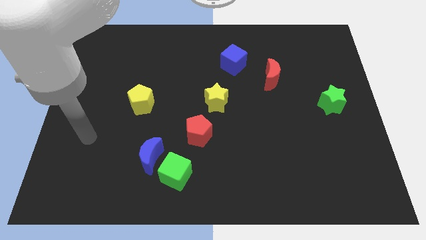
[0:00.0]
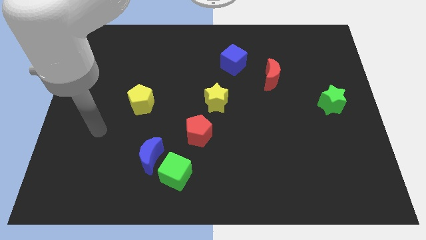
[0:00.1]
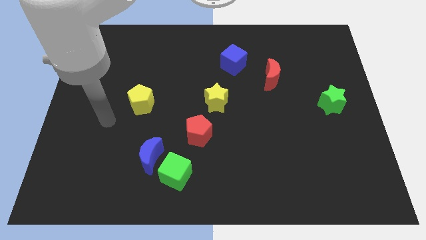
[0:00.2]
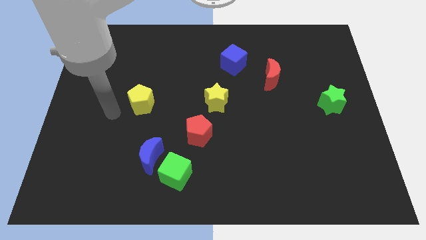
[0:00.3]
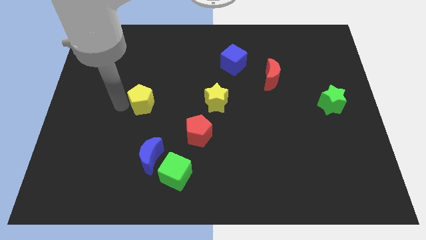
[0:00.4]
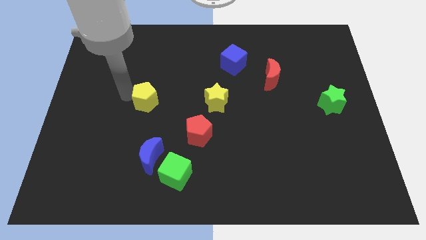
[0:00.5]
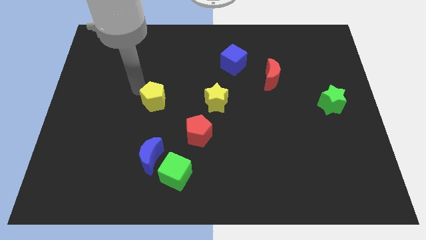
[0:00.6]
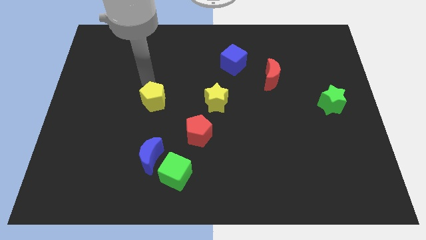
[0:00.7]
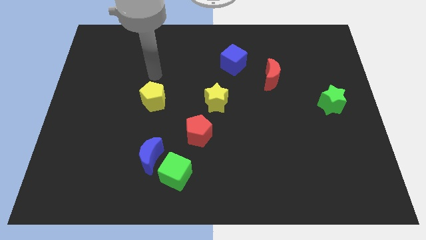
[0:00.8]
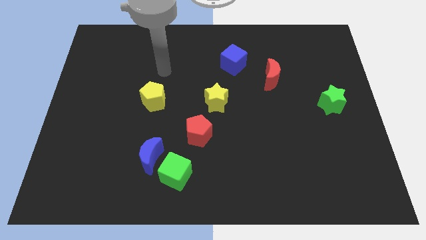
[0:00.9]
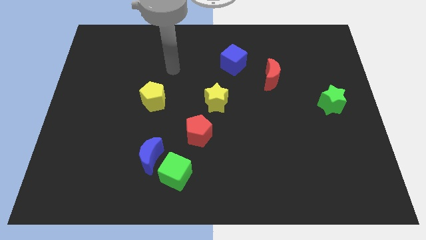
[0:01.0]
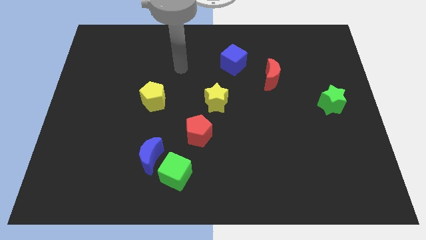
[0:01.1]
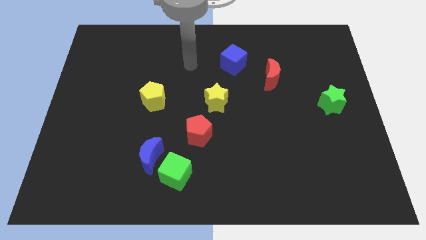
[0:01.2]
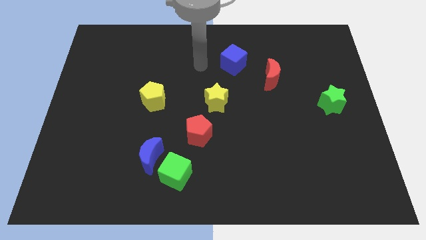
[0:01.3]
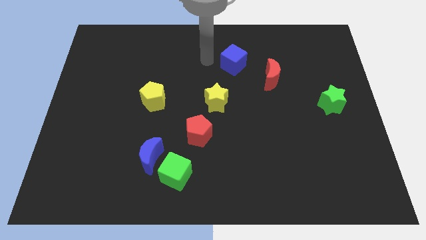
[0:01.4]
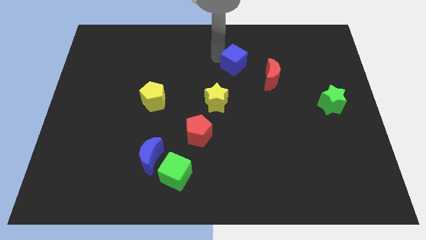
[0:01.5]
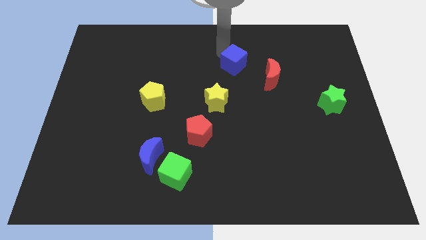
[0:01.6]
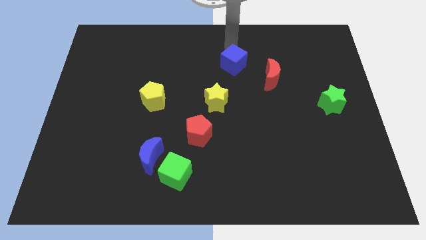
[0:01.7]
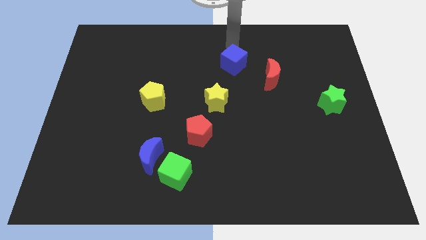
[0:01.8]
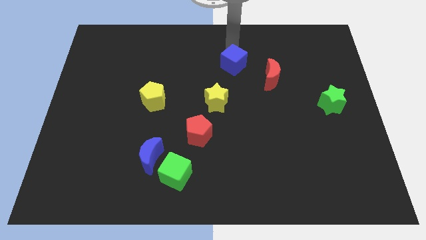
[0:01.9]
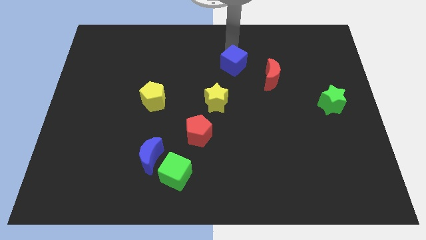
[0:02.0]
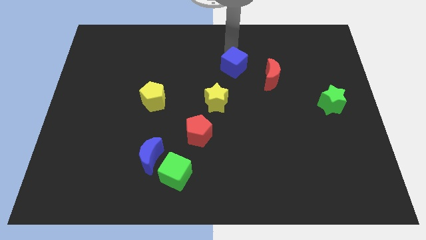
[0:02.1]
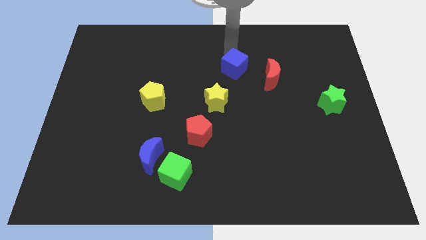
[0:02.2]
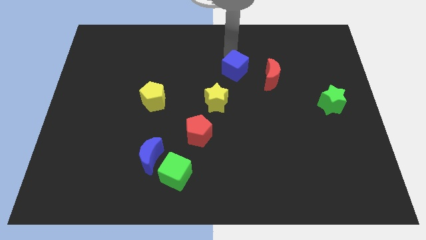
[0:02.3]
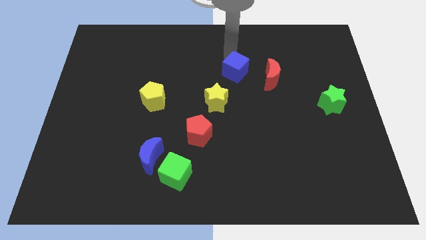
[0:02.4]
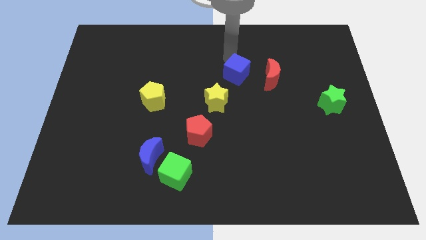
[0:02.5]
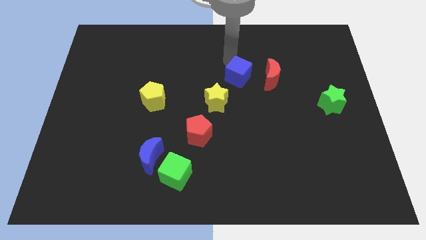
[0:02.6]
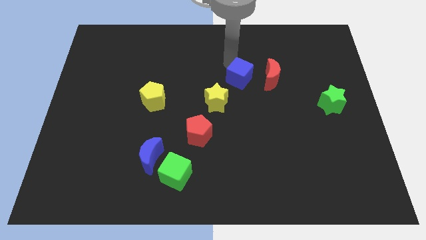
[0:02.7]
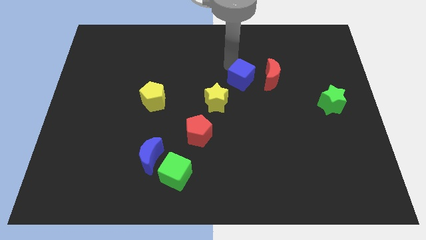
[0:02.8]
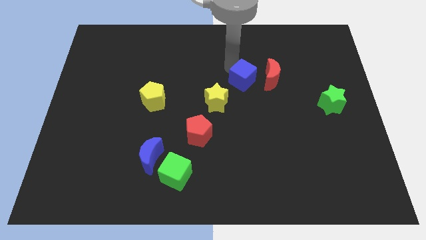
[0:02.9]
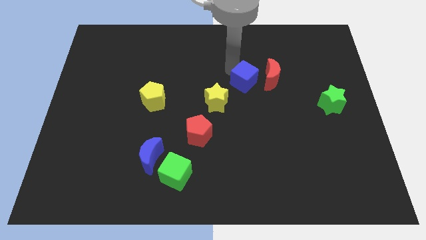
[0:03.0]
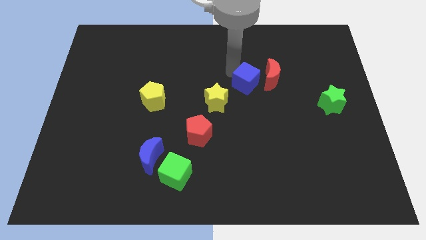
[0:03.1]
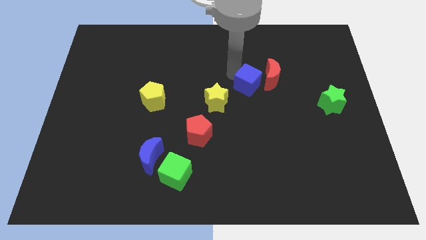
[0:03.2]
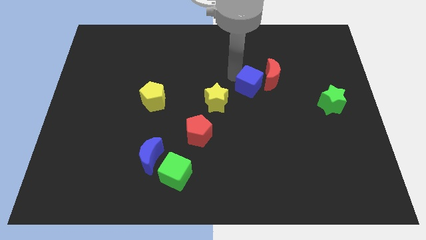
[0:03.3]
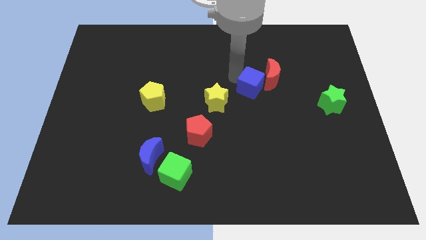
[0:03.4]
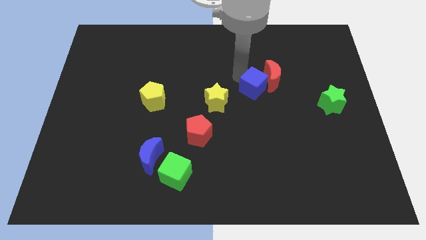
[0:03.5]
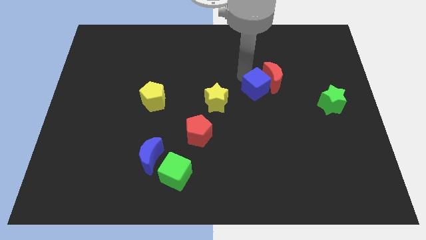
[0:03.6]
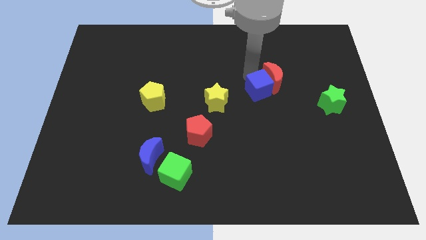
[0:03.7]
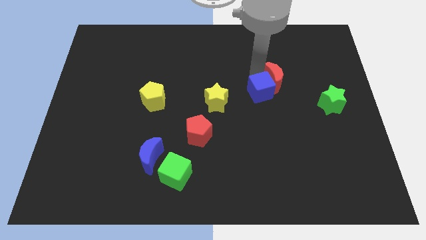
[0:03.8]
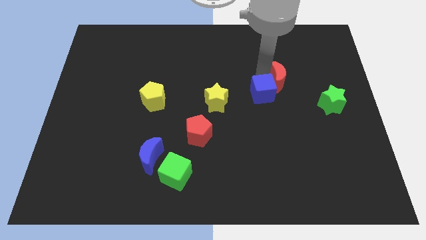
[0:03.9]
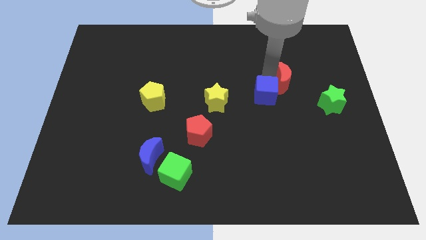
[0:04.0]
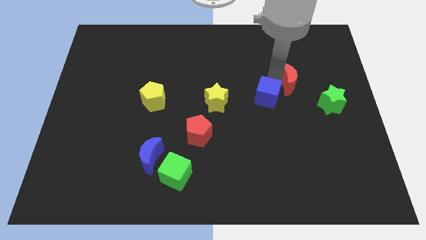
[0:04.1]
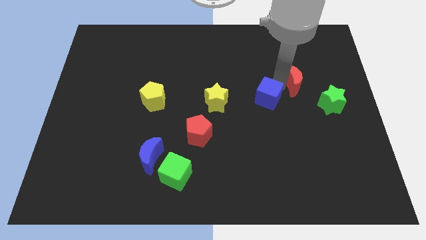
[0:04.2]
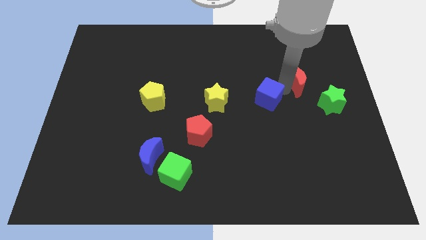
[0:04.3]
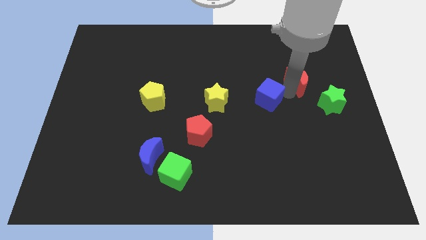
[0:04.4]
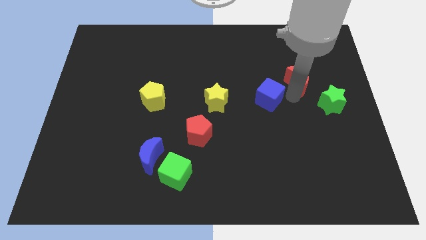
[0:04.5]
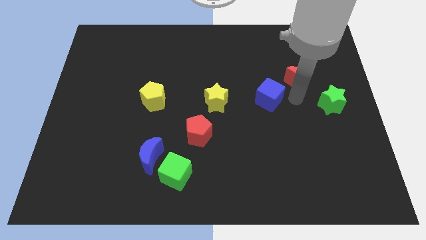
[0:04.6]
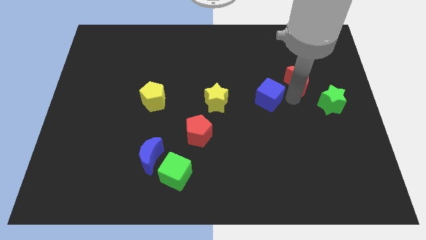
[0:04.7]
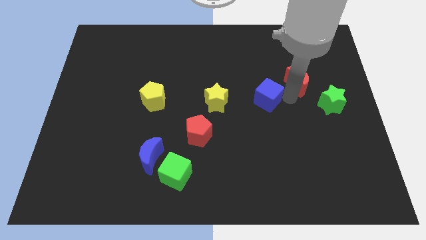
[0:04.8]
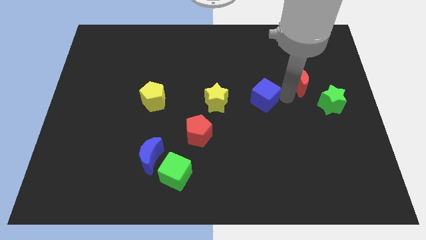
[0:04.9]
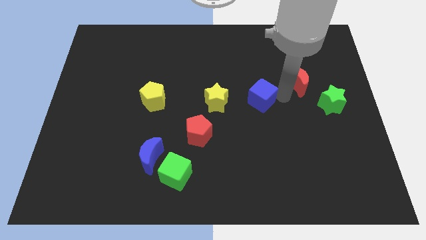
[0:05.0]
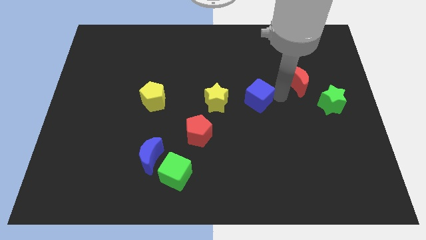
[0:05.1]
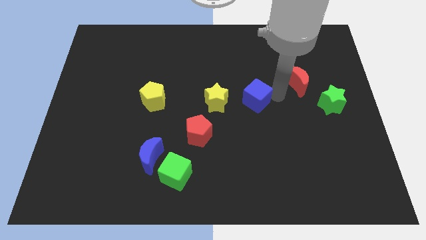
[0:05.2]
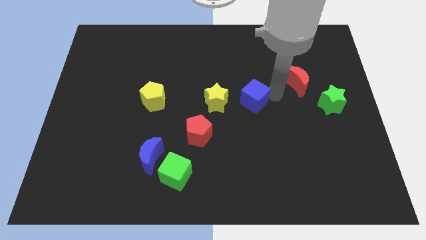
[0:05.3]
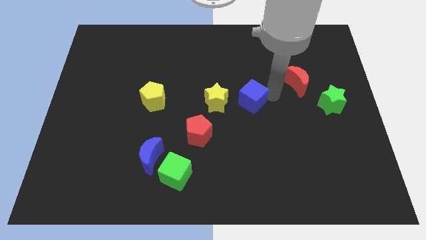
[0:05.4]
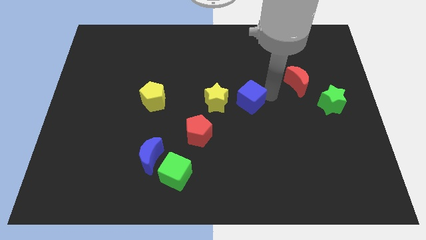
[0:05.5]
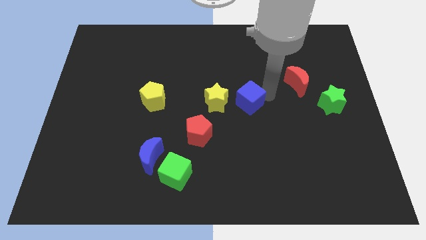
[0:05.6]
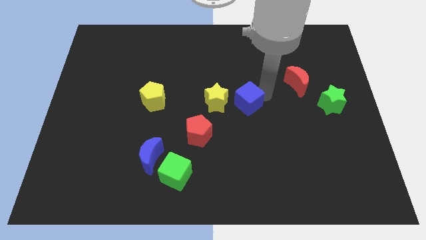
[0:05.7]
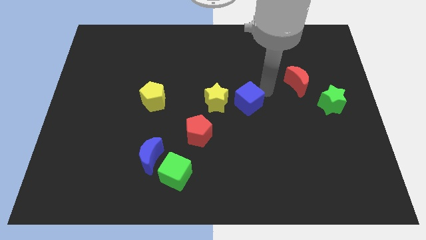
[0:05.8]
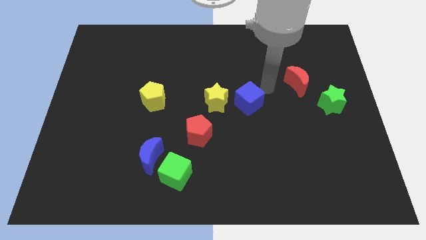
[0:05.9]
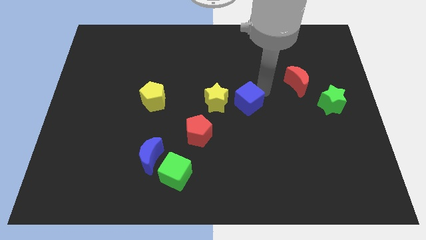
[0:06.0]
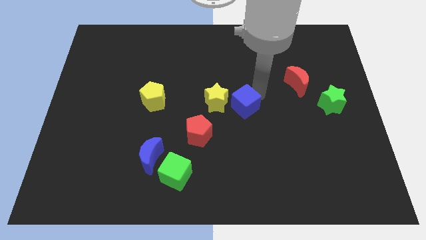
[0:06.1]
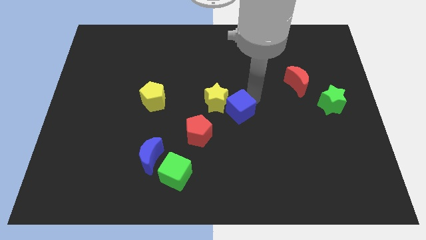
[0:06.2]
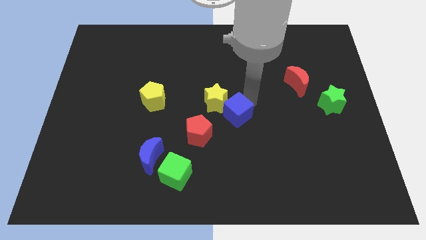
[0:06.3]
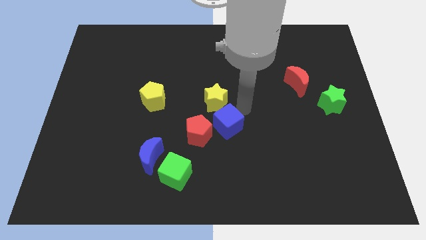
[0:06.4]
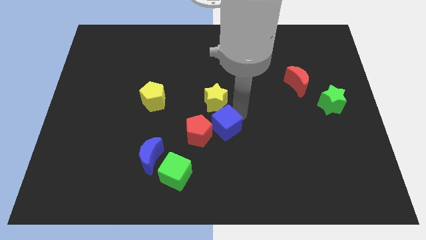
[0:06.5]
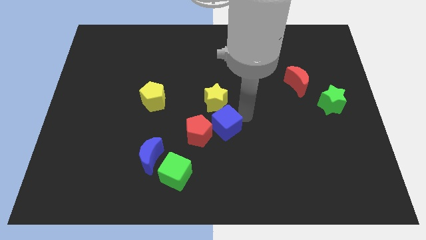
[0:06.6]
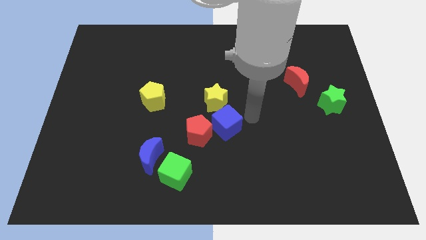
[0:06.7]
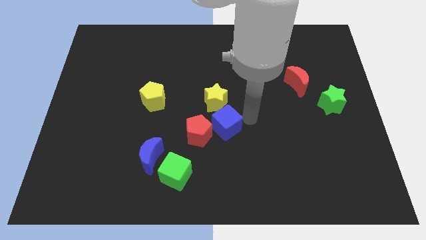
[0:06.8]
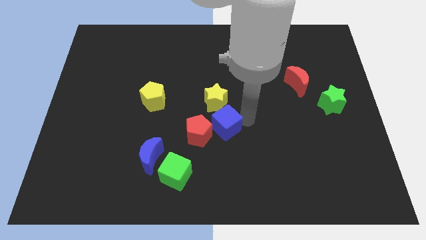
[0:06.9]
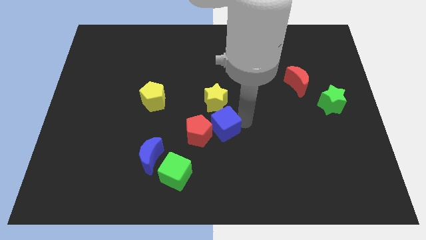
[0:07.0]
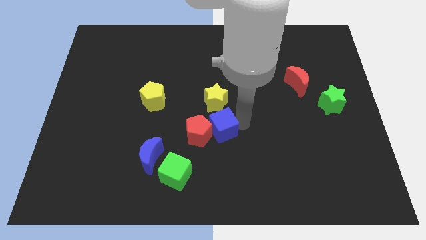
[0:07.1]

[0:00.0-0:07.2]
put the blue cube towards the red pentagon
